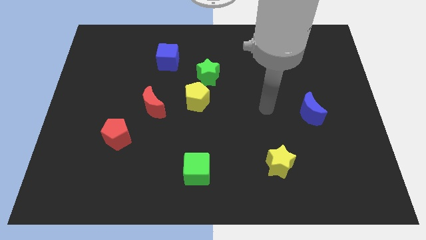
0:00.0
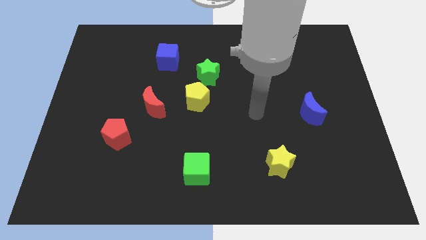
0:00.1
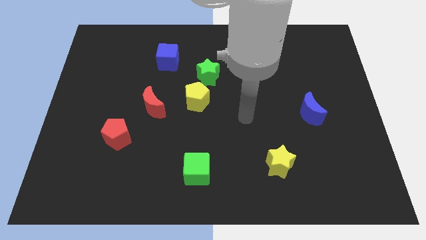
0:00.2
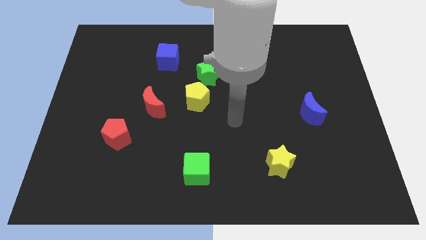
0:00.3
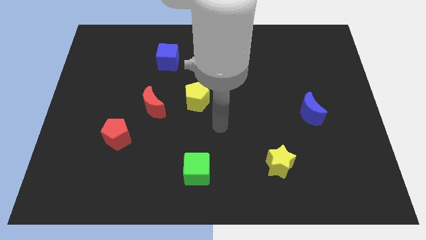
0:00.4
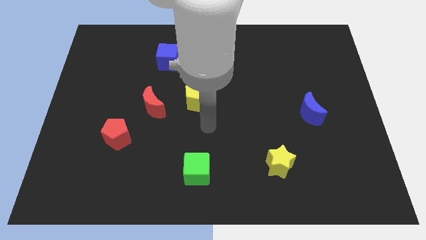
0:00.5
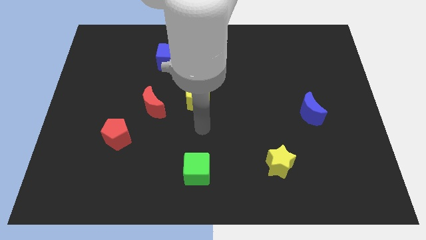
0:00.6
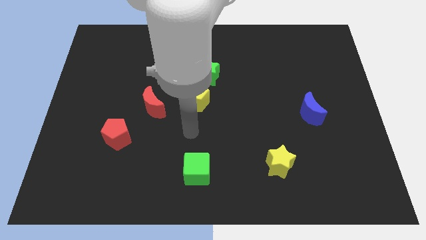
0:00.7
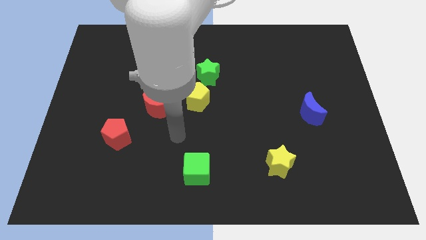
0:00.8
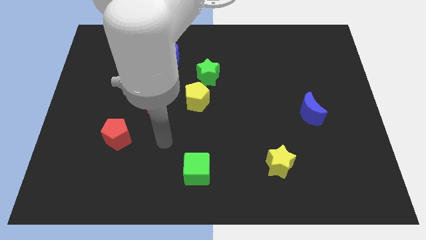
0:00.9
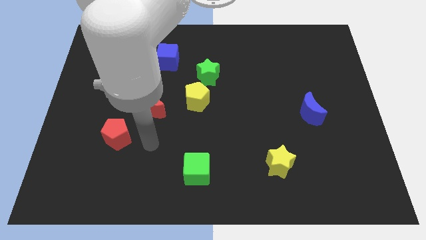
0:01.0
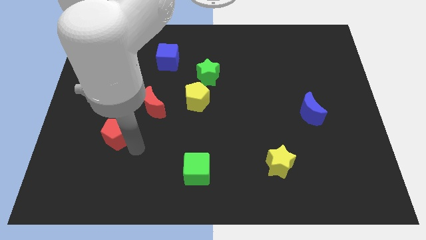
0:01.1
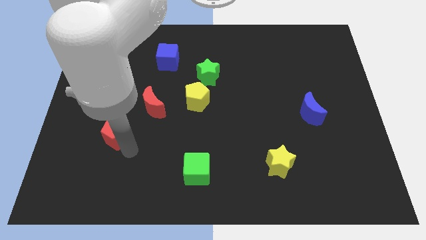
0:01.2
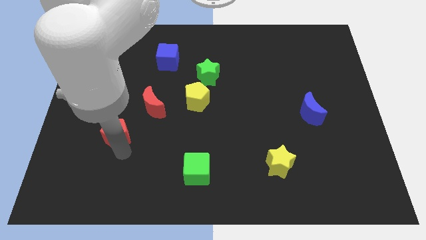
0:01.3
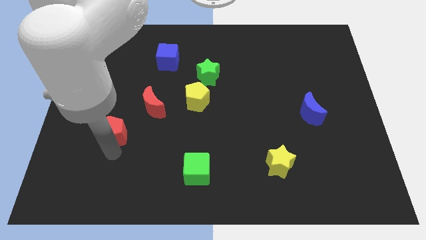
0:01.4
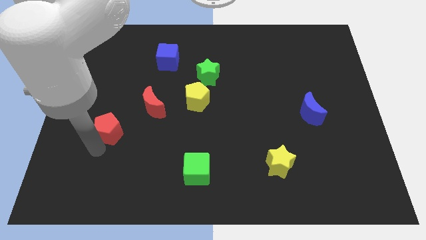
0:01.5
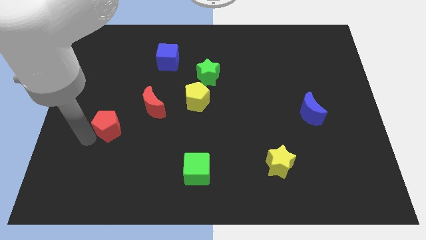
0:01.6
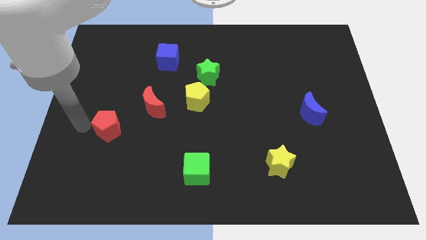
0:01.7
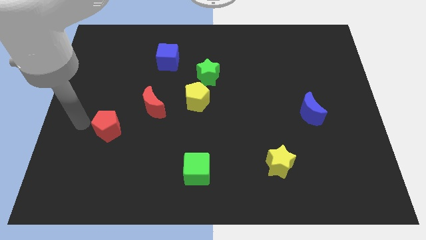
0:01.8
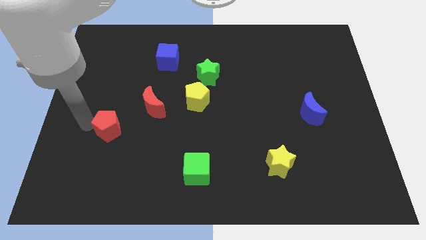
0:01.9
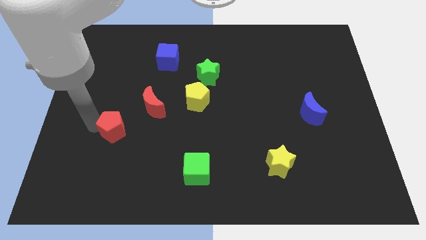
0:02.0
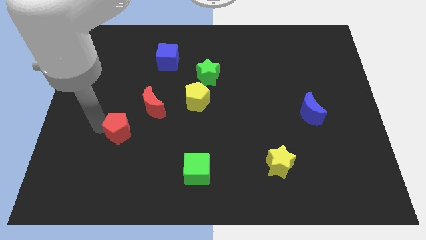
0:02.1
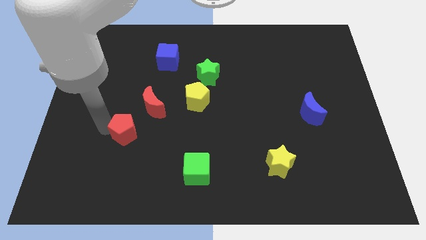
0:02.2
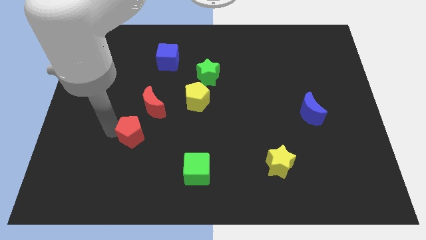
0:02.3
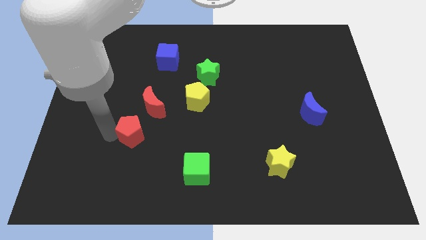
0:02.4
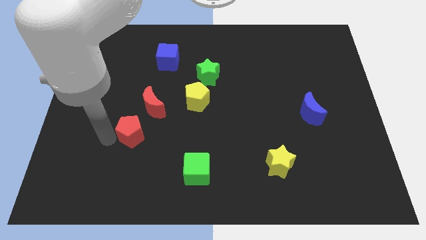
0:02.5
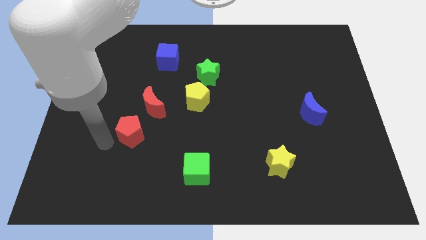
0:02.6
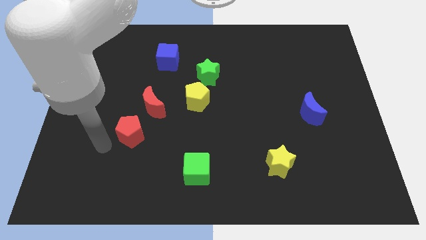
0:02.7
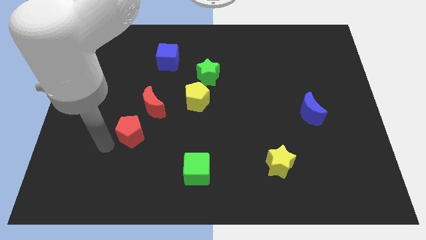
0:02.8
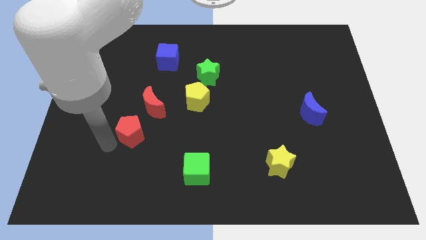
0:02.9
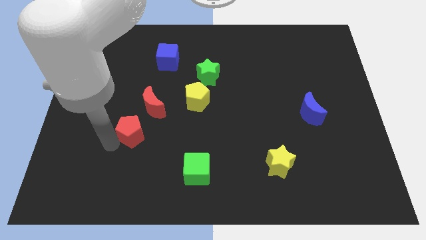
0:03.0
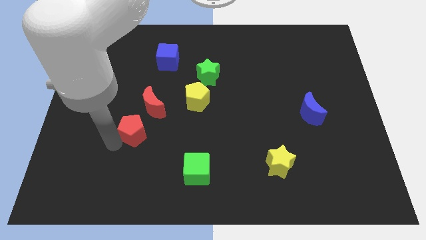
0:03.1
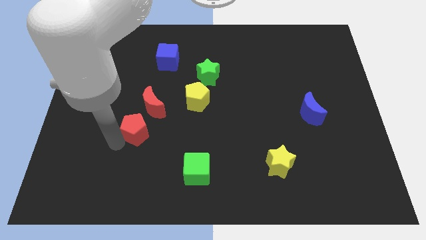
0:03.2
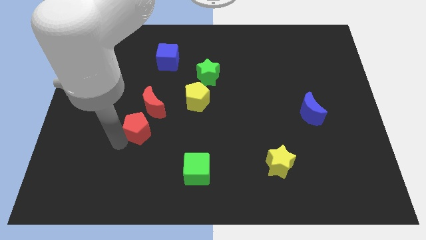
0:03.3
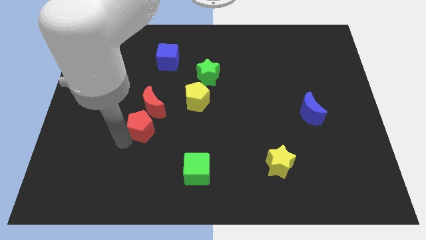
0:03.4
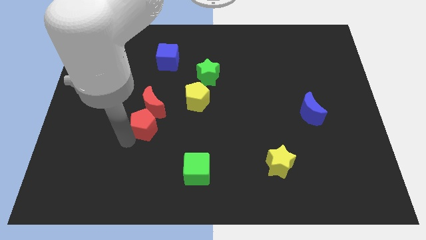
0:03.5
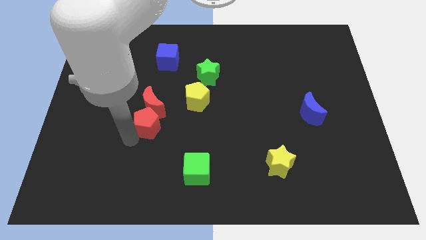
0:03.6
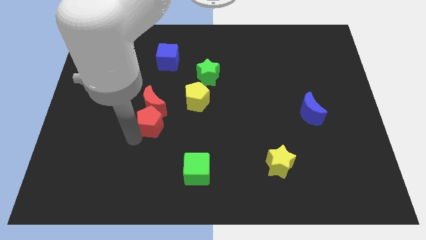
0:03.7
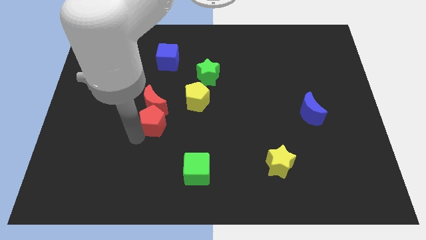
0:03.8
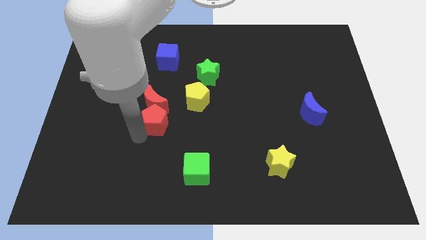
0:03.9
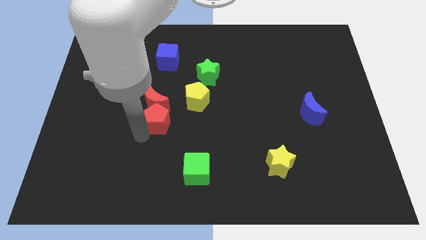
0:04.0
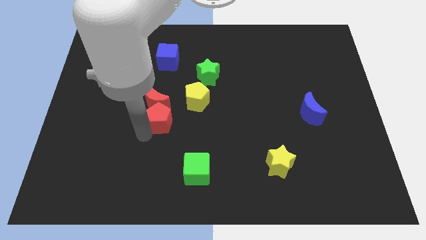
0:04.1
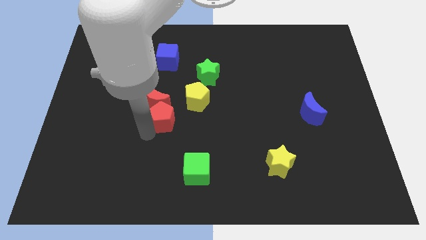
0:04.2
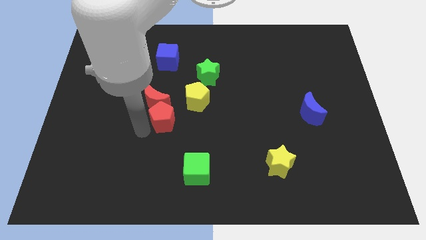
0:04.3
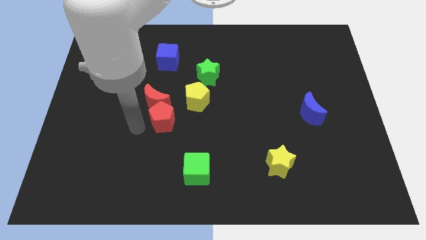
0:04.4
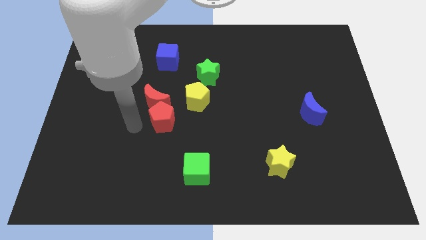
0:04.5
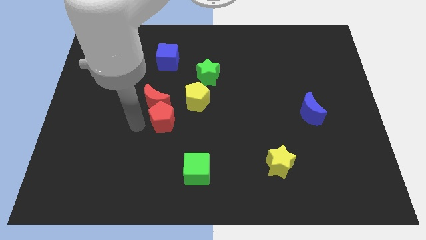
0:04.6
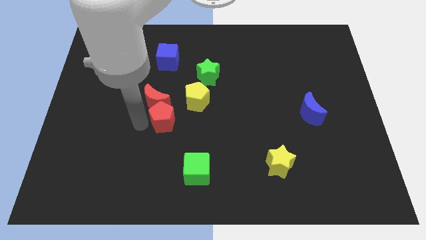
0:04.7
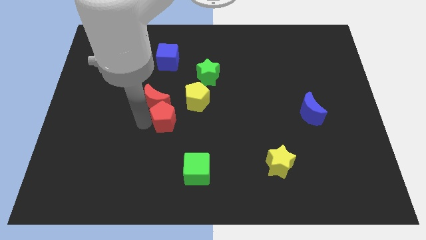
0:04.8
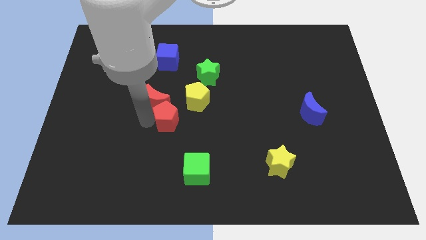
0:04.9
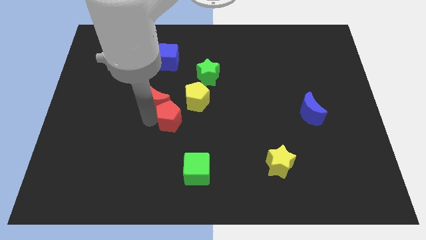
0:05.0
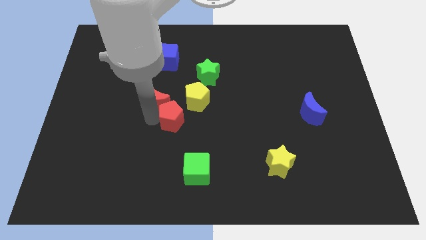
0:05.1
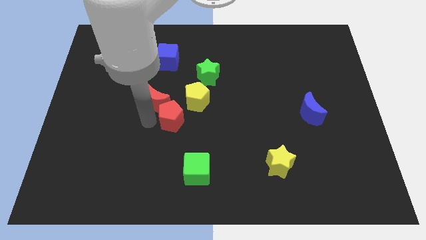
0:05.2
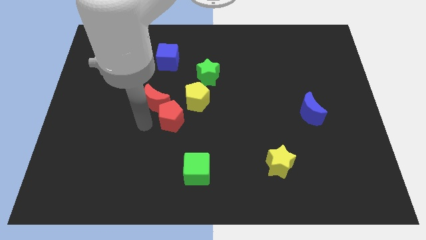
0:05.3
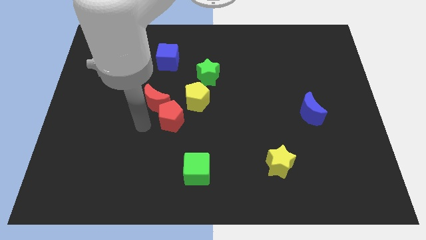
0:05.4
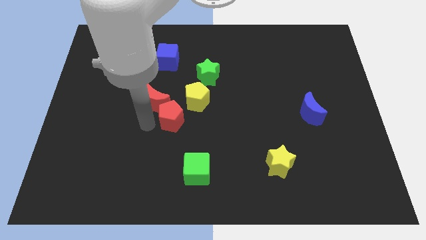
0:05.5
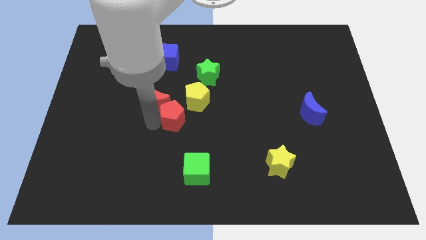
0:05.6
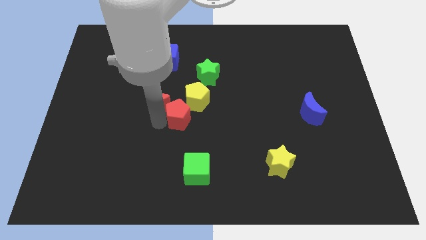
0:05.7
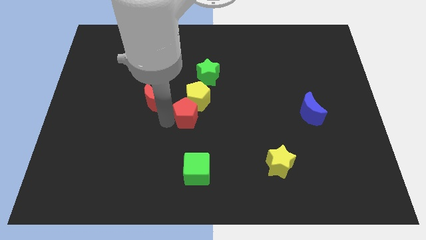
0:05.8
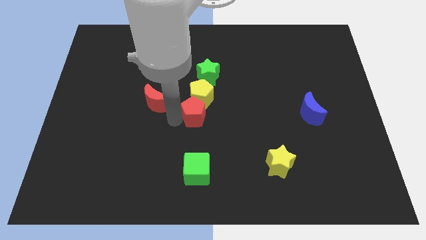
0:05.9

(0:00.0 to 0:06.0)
slide the red pentagon below the green star

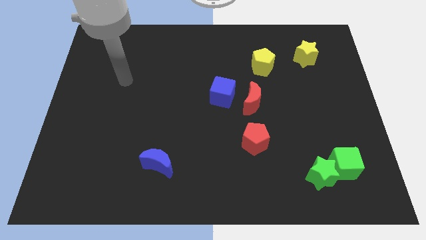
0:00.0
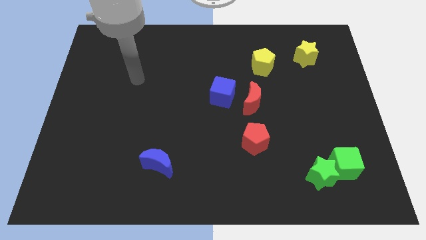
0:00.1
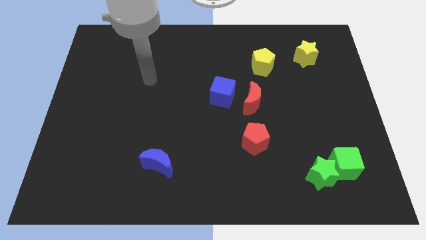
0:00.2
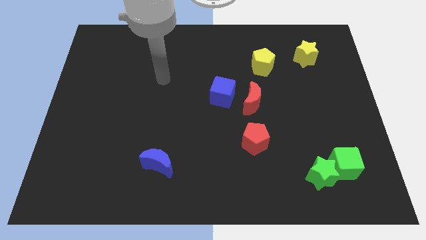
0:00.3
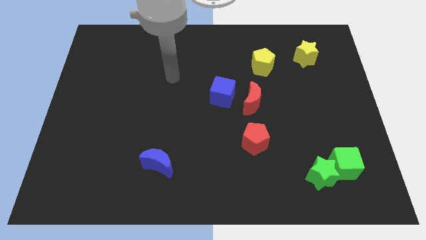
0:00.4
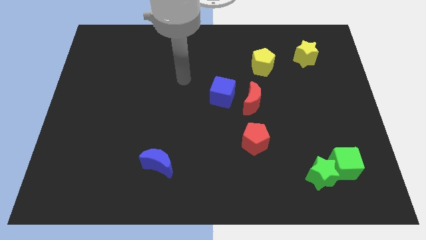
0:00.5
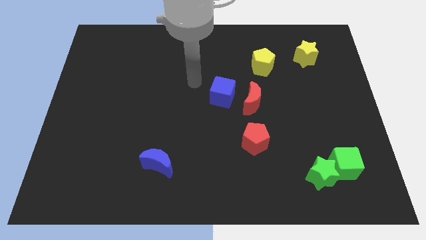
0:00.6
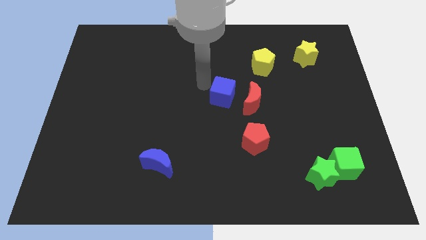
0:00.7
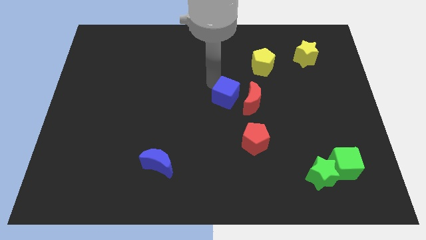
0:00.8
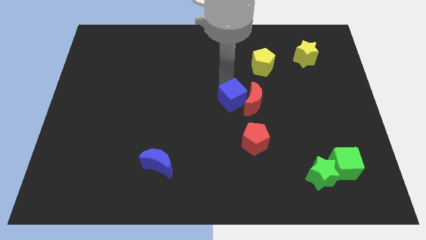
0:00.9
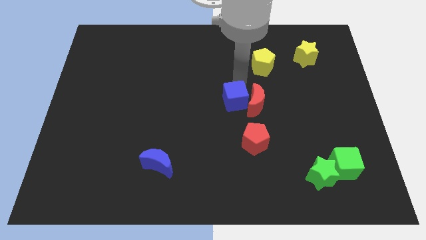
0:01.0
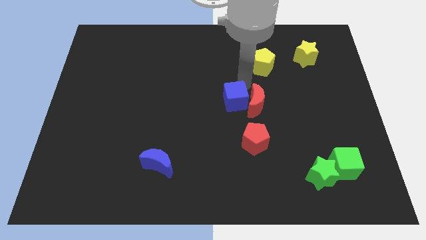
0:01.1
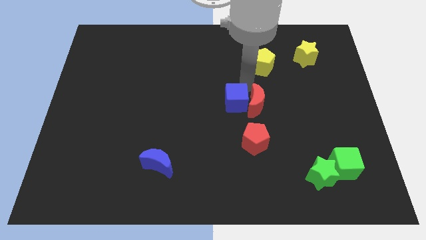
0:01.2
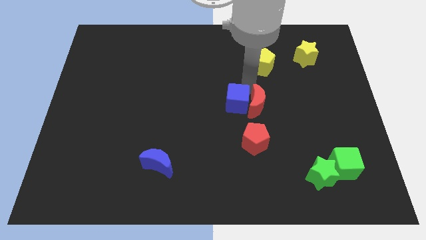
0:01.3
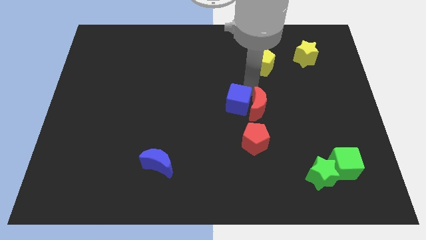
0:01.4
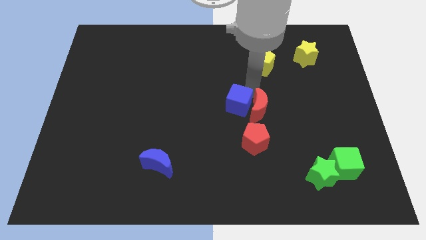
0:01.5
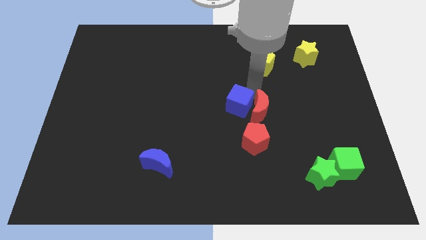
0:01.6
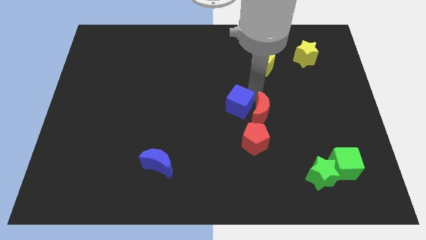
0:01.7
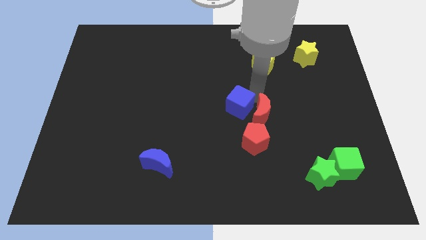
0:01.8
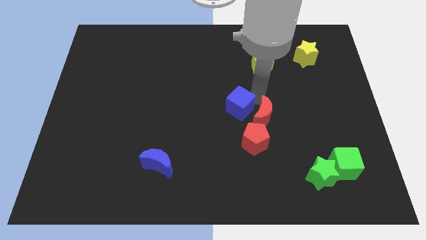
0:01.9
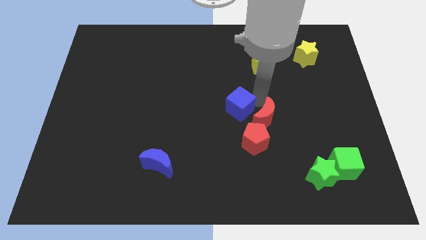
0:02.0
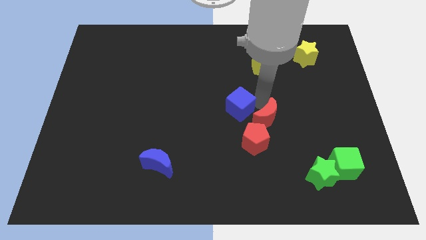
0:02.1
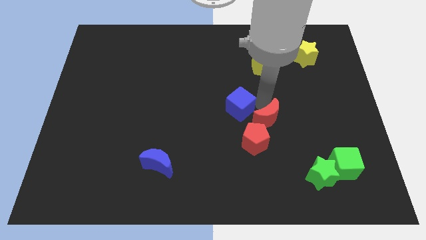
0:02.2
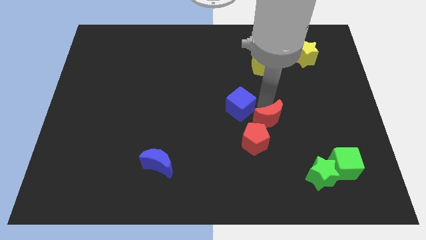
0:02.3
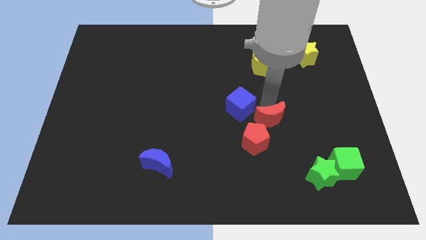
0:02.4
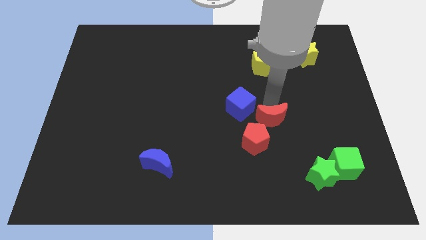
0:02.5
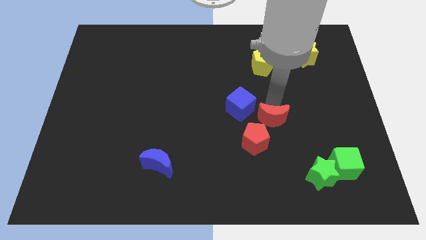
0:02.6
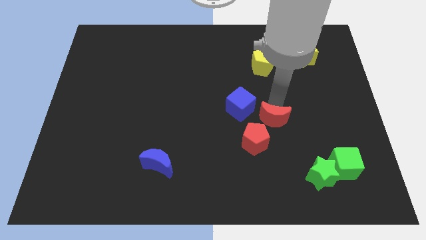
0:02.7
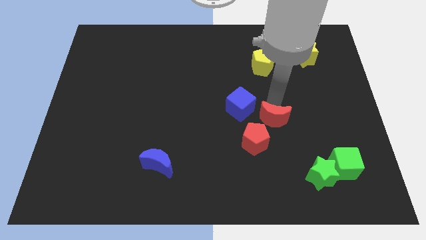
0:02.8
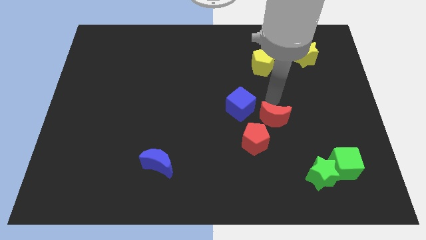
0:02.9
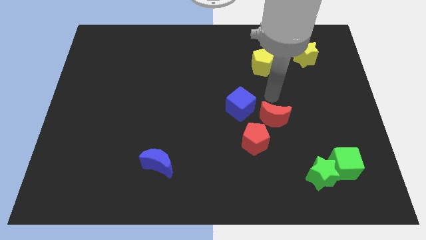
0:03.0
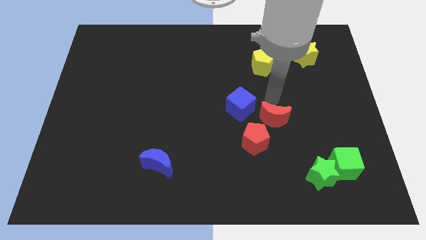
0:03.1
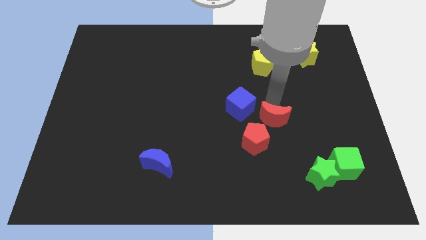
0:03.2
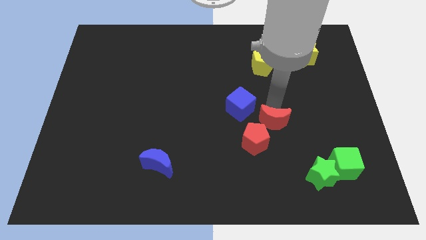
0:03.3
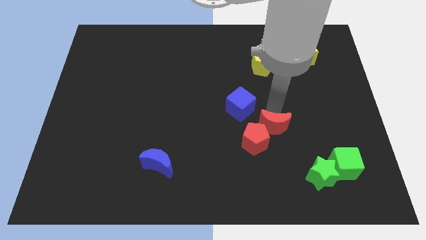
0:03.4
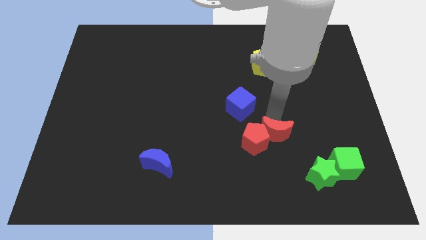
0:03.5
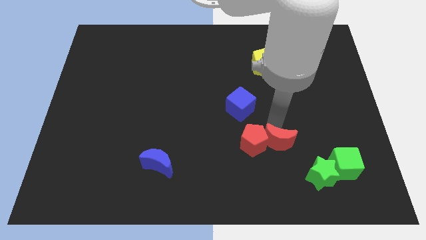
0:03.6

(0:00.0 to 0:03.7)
push the red moon diagonally down and to the right of the red pentagon
